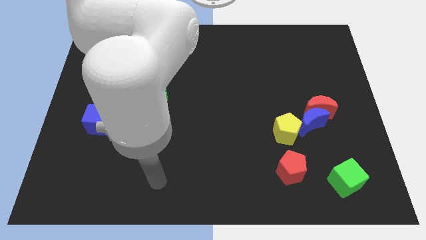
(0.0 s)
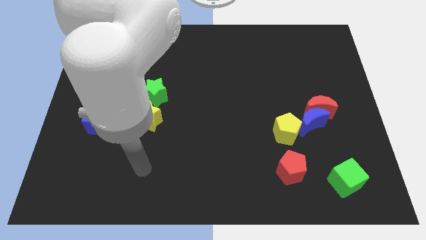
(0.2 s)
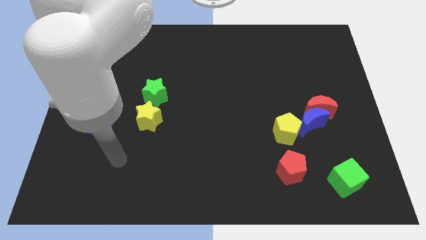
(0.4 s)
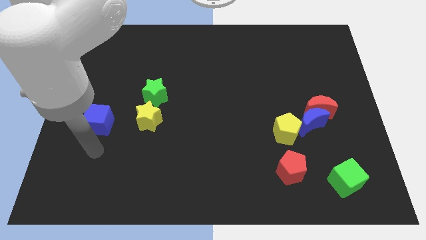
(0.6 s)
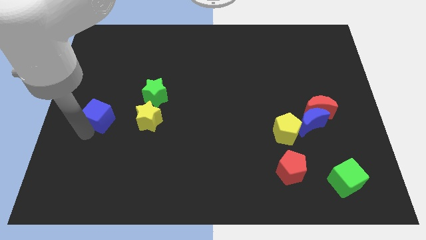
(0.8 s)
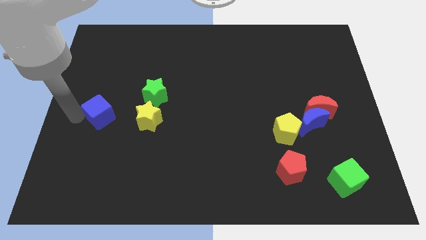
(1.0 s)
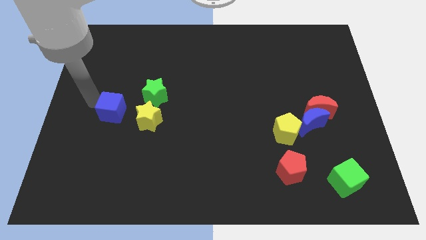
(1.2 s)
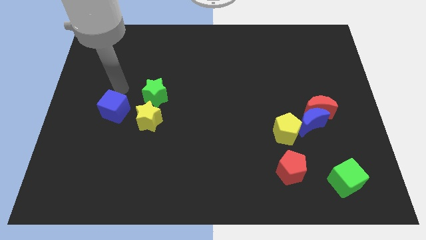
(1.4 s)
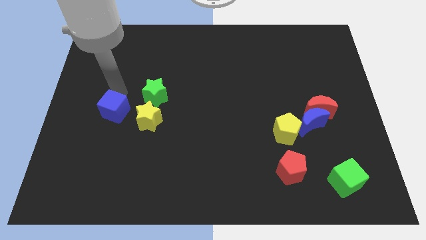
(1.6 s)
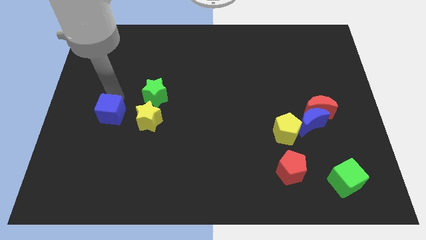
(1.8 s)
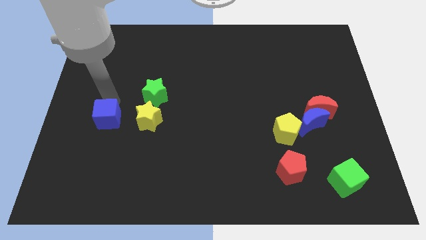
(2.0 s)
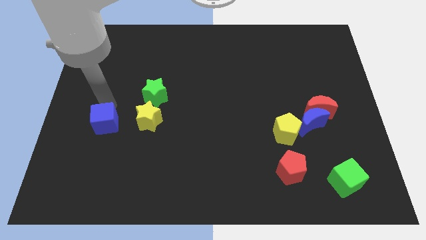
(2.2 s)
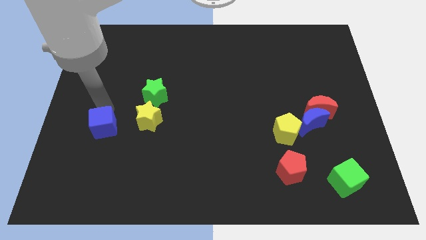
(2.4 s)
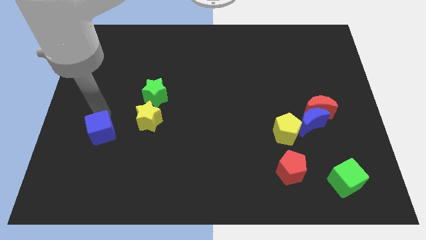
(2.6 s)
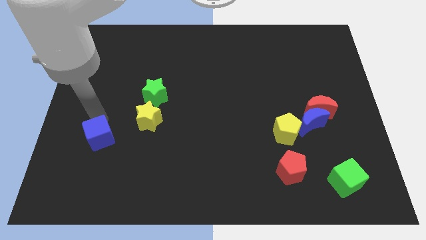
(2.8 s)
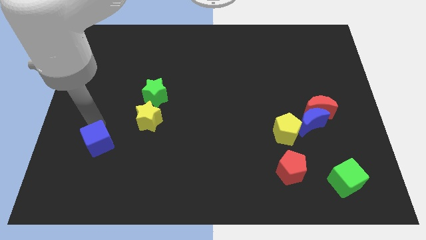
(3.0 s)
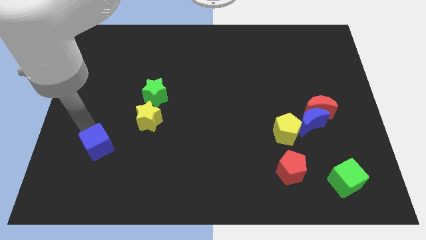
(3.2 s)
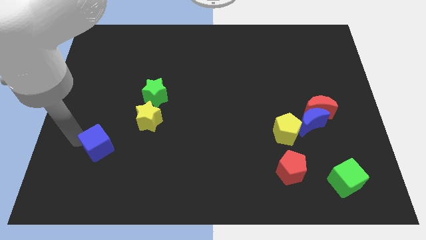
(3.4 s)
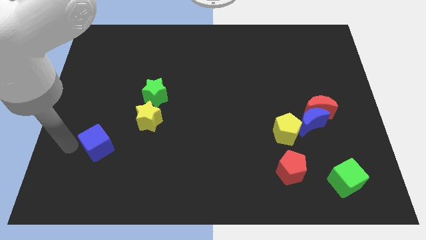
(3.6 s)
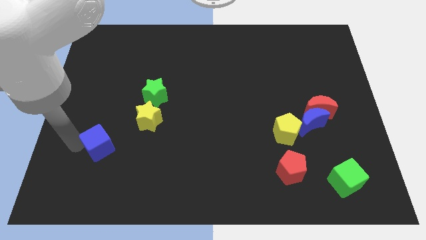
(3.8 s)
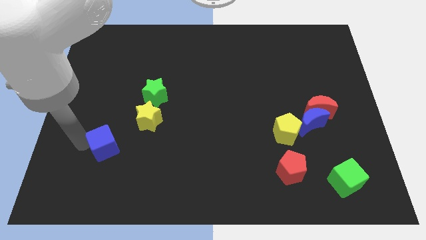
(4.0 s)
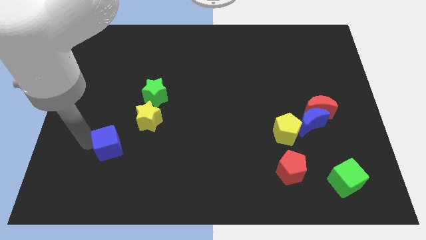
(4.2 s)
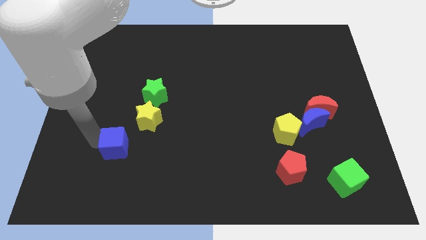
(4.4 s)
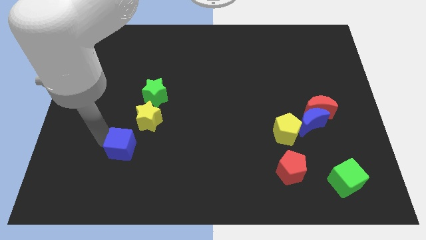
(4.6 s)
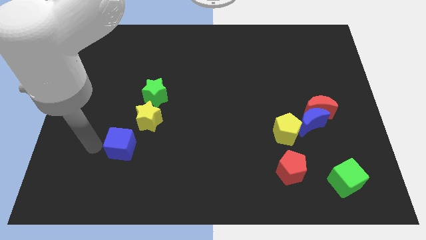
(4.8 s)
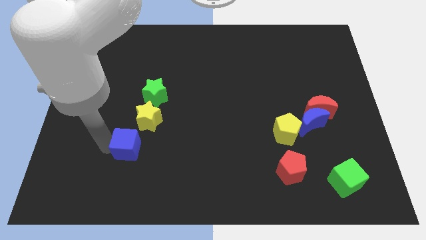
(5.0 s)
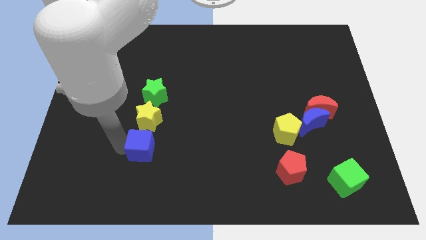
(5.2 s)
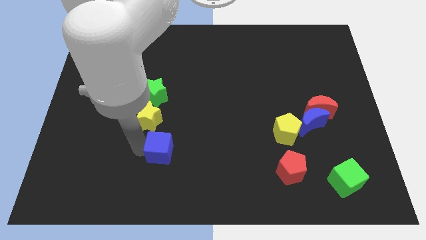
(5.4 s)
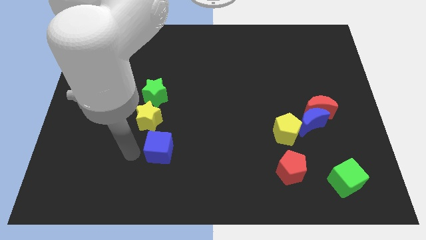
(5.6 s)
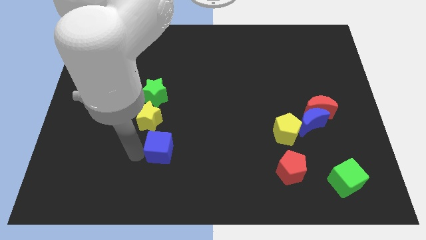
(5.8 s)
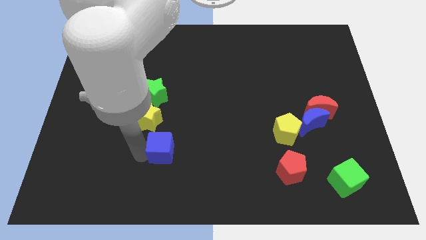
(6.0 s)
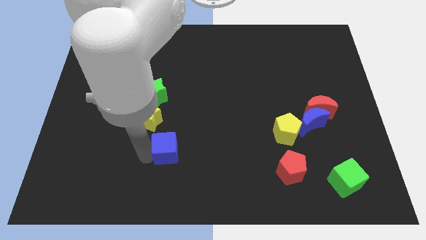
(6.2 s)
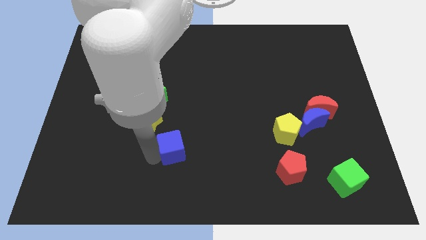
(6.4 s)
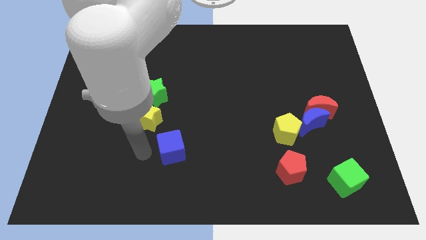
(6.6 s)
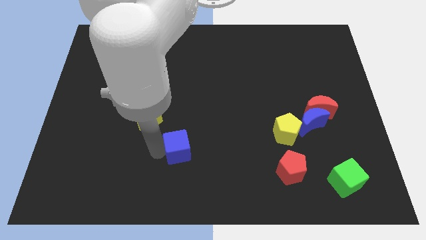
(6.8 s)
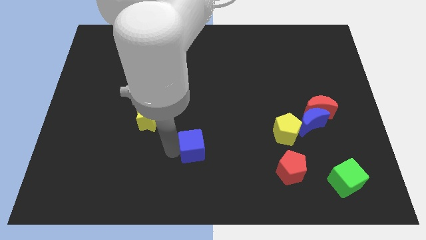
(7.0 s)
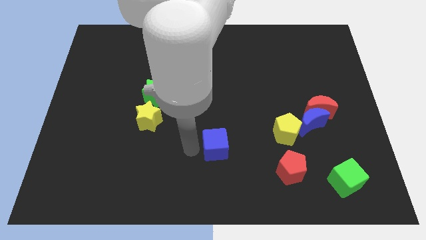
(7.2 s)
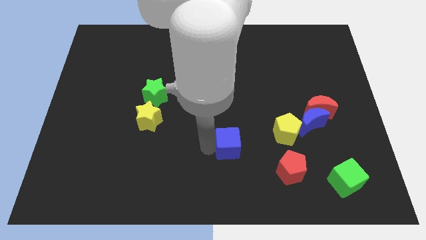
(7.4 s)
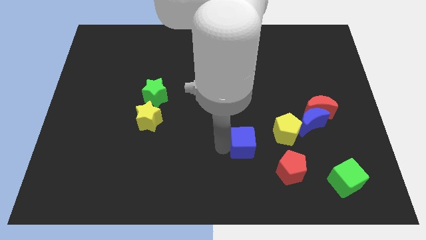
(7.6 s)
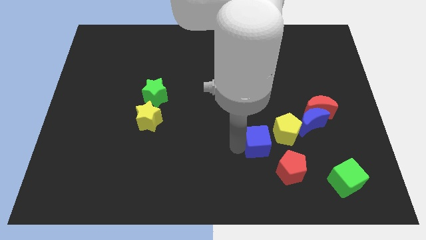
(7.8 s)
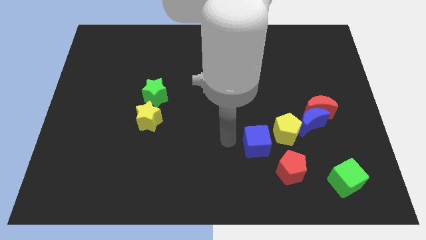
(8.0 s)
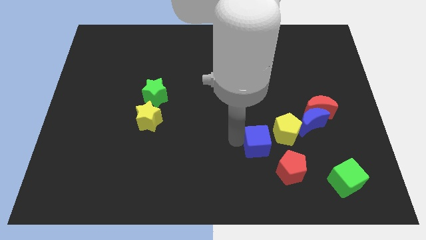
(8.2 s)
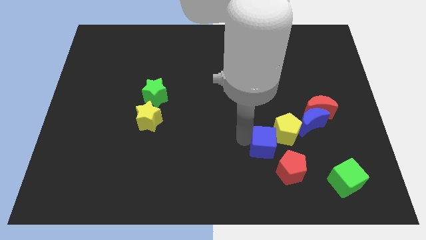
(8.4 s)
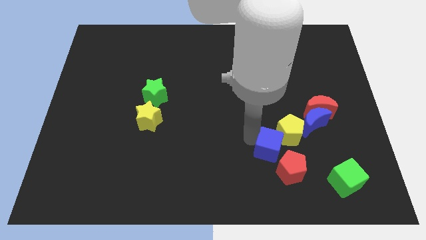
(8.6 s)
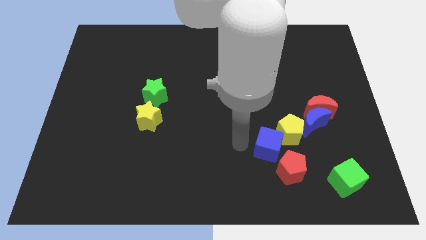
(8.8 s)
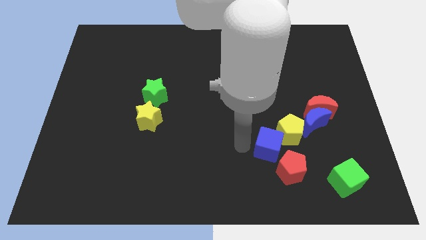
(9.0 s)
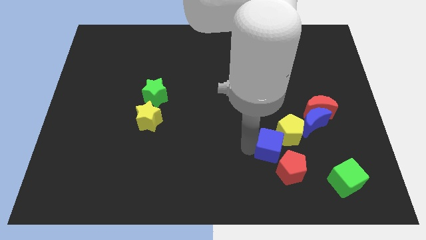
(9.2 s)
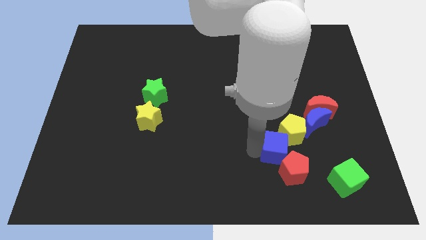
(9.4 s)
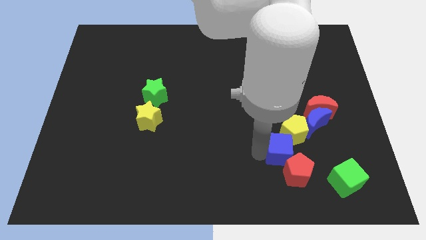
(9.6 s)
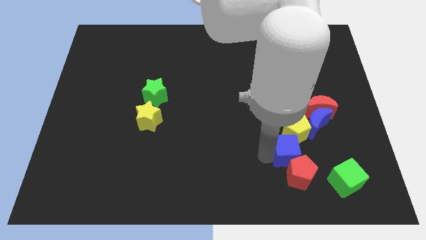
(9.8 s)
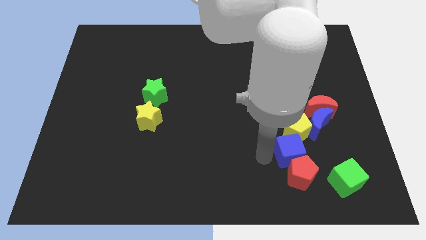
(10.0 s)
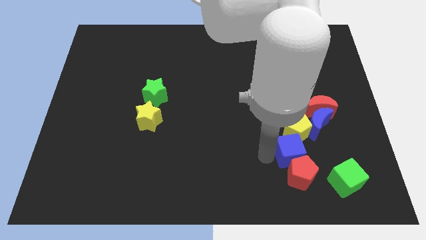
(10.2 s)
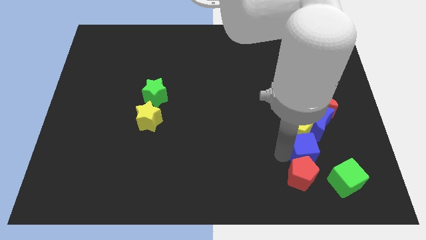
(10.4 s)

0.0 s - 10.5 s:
slide the blue cube diagonally down and to the right of the yellow pentagon

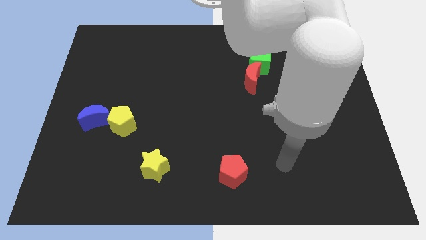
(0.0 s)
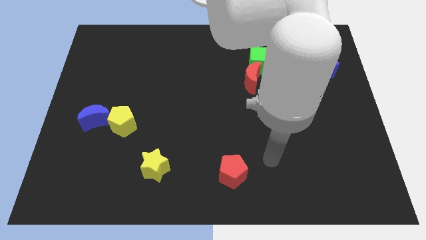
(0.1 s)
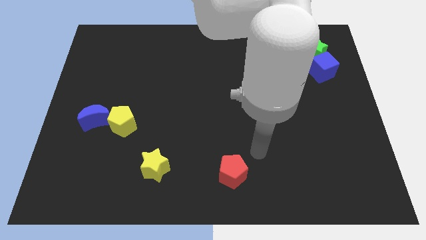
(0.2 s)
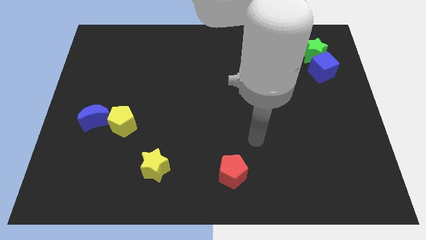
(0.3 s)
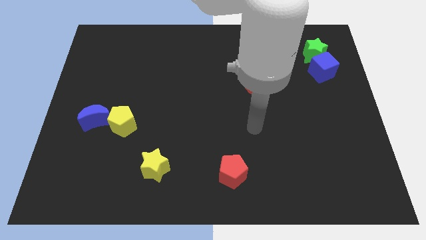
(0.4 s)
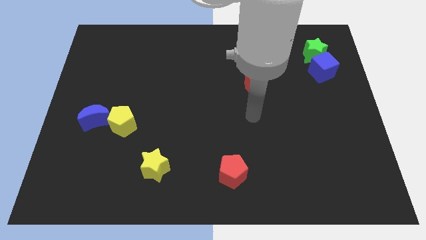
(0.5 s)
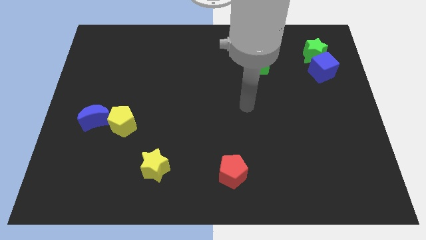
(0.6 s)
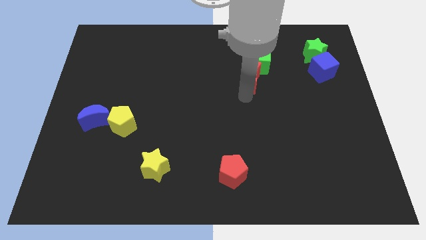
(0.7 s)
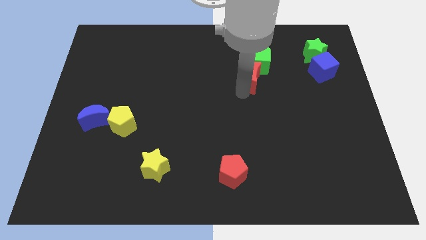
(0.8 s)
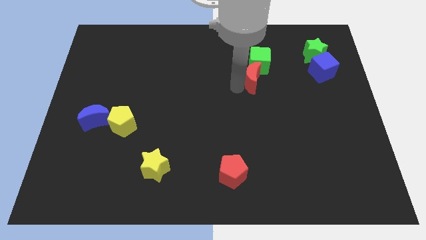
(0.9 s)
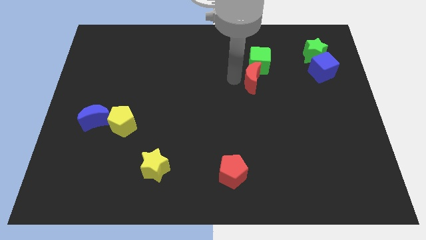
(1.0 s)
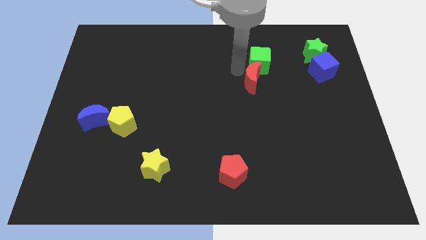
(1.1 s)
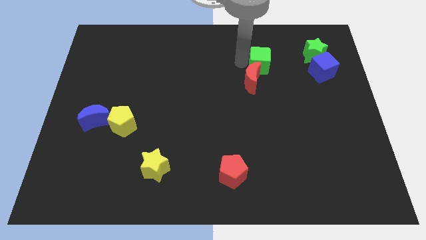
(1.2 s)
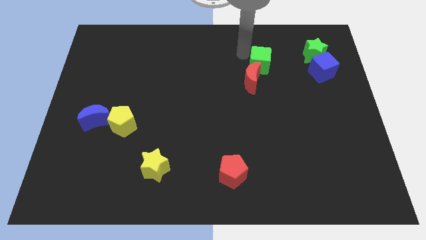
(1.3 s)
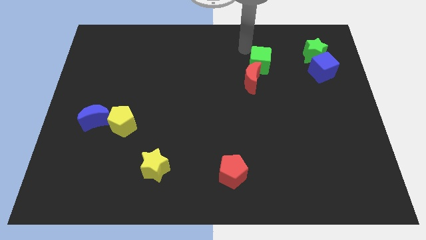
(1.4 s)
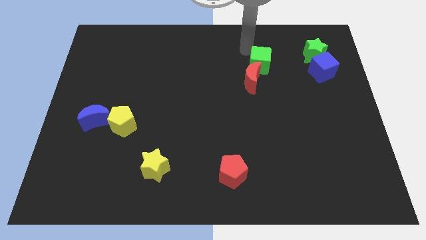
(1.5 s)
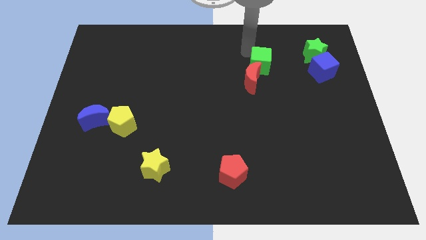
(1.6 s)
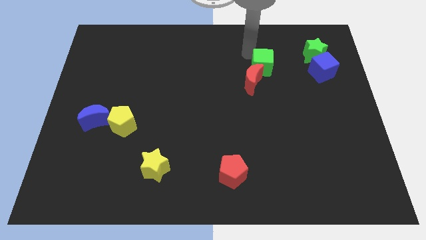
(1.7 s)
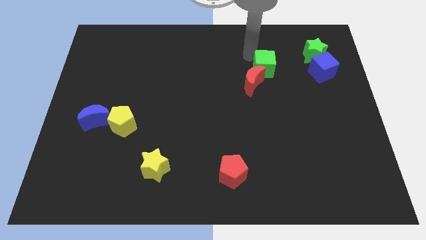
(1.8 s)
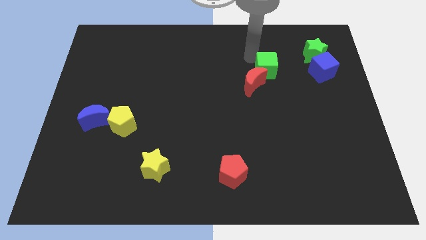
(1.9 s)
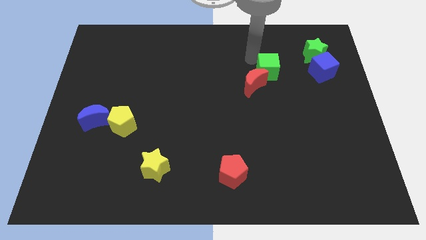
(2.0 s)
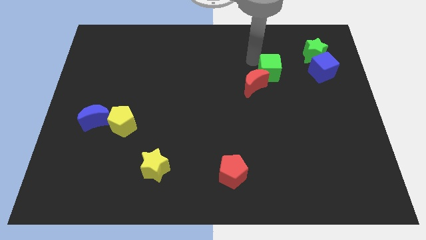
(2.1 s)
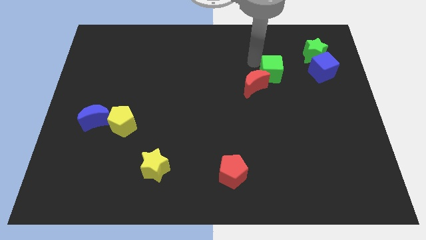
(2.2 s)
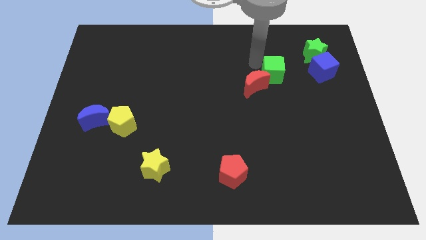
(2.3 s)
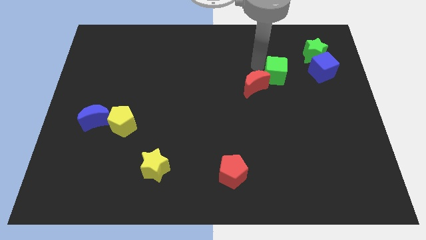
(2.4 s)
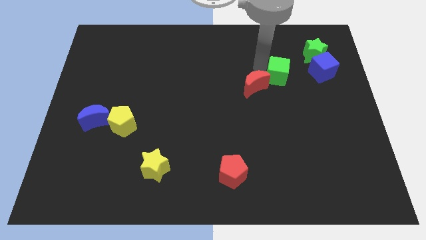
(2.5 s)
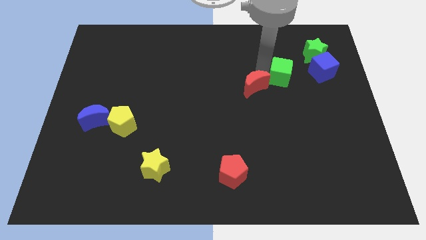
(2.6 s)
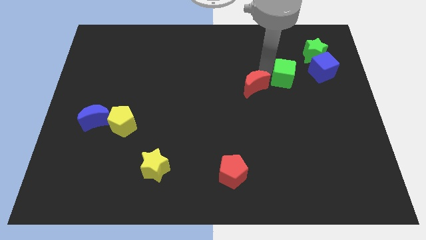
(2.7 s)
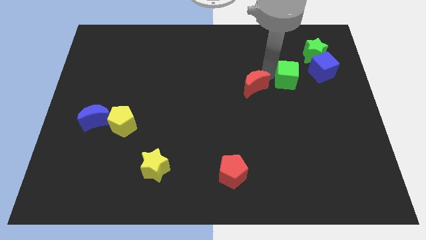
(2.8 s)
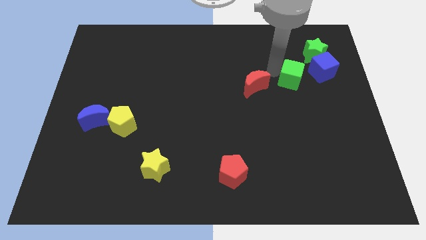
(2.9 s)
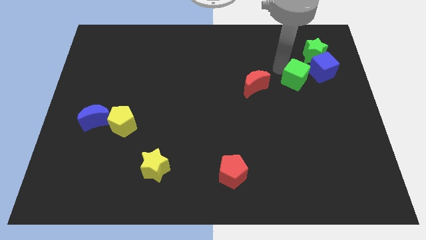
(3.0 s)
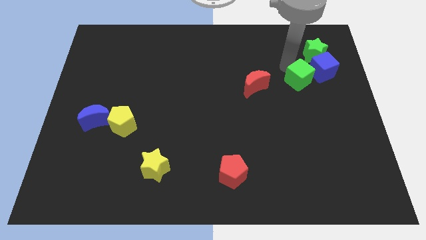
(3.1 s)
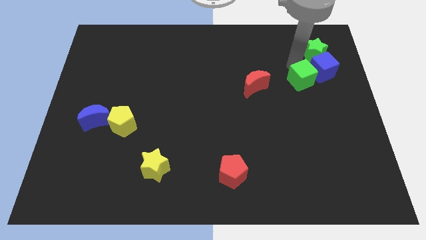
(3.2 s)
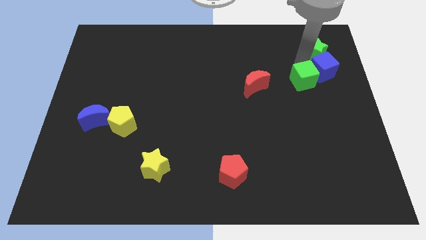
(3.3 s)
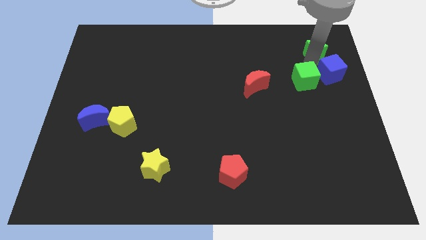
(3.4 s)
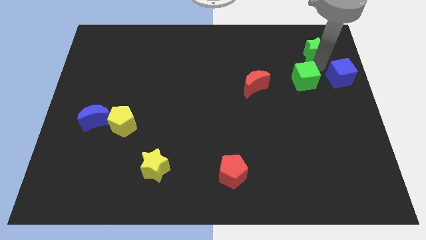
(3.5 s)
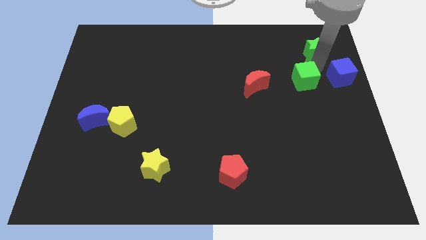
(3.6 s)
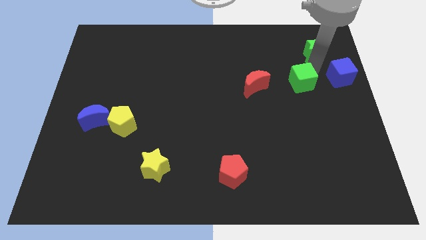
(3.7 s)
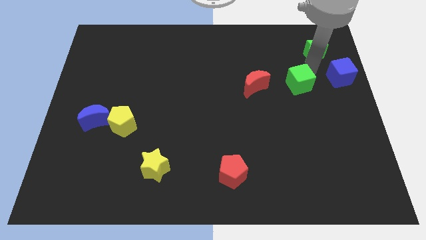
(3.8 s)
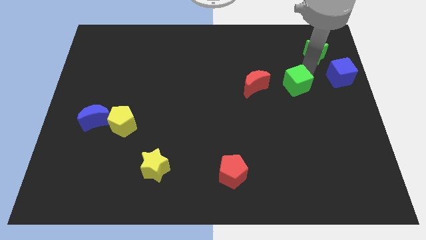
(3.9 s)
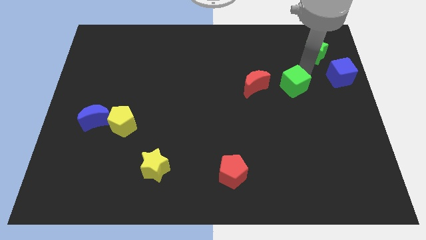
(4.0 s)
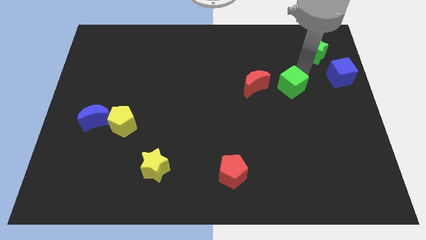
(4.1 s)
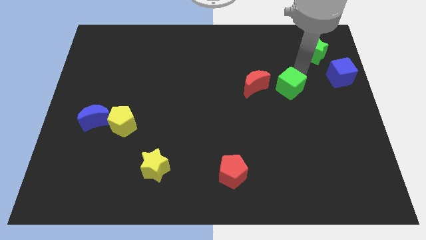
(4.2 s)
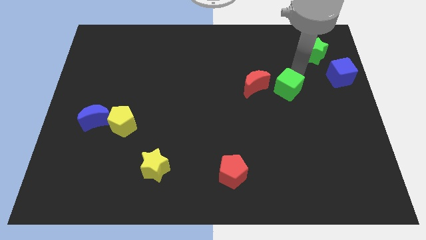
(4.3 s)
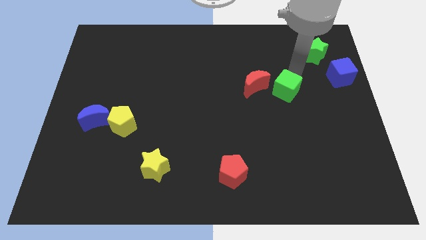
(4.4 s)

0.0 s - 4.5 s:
move the green cube diagonally down and to the right of the red moon
